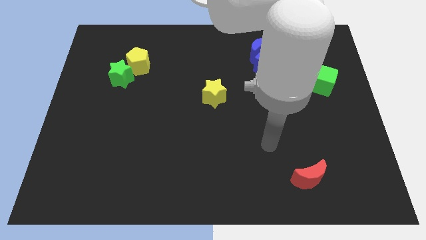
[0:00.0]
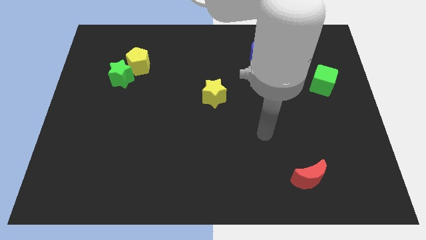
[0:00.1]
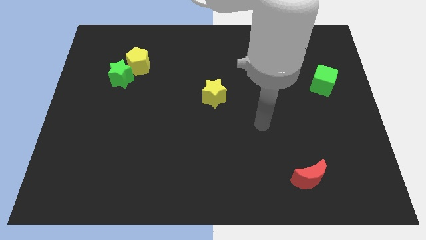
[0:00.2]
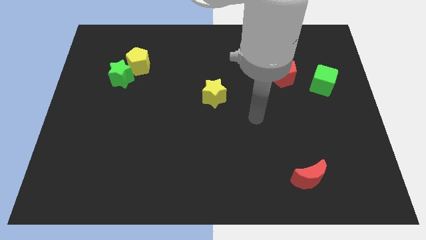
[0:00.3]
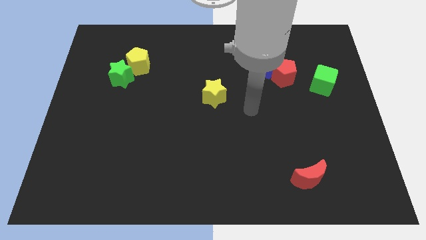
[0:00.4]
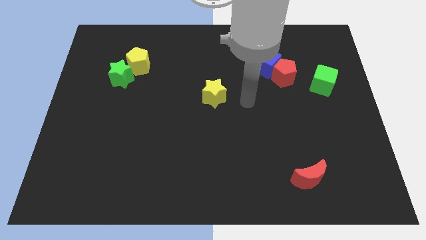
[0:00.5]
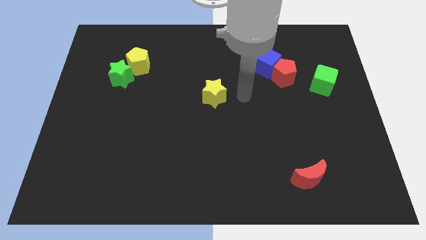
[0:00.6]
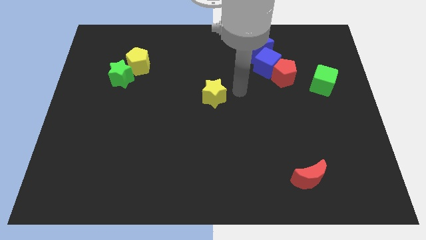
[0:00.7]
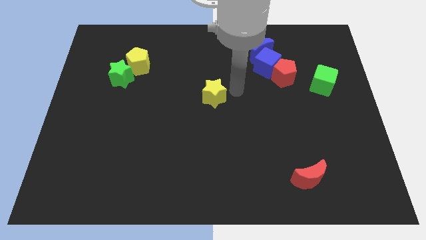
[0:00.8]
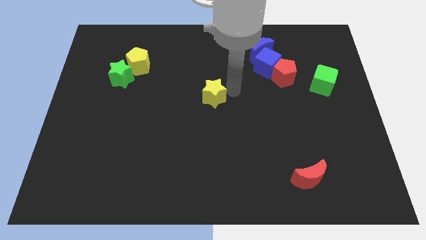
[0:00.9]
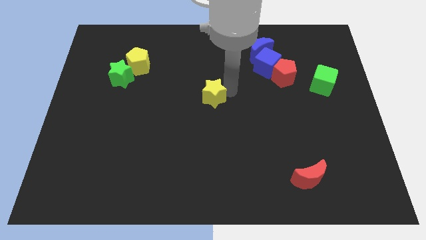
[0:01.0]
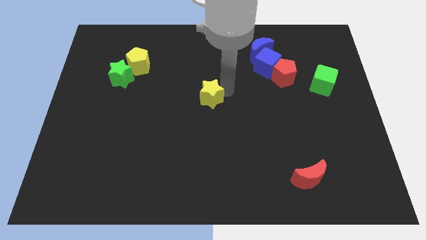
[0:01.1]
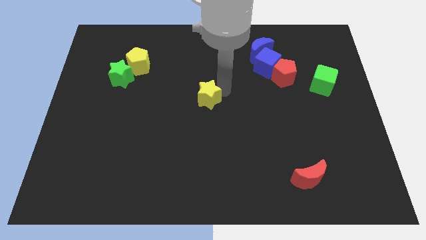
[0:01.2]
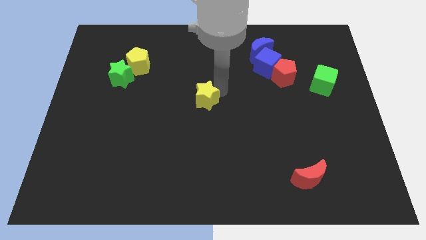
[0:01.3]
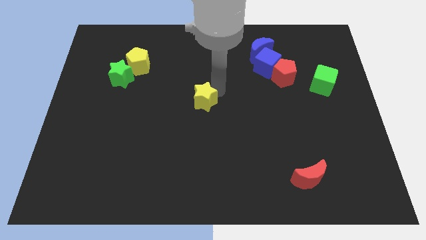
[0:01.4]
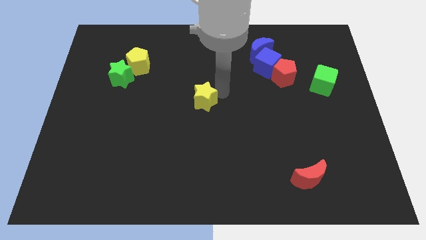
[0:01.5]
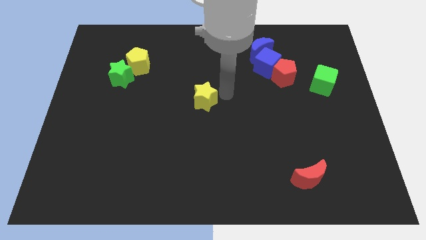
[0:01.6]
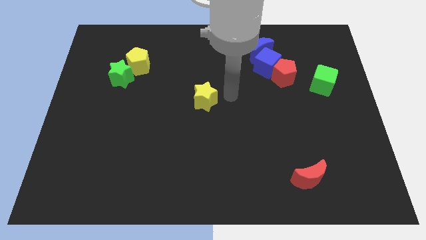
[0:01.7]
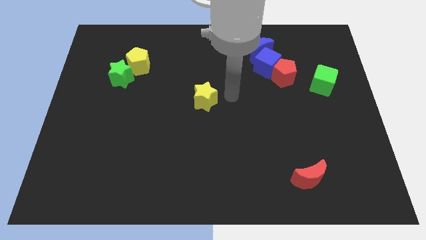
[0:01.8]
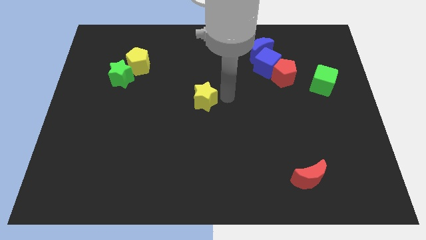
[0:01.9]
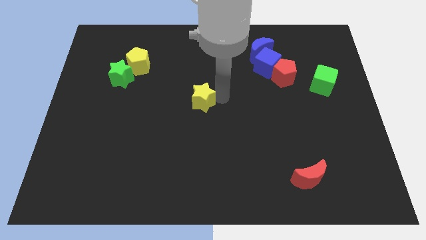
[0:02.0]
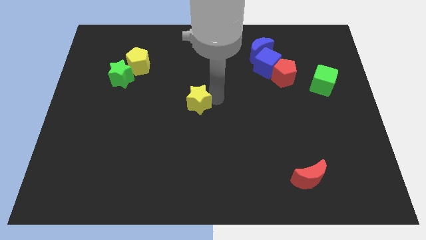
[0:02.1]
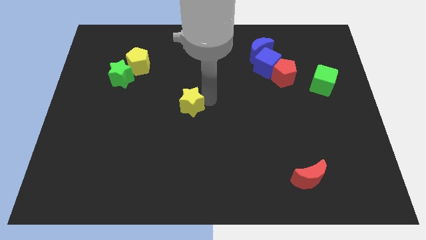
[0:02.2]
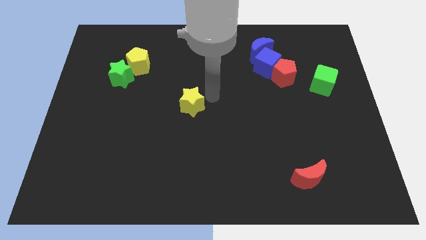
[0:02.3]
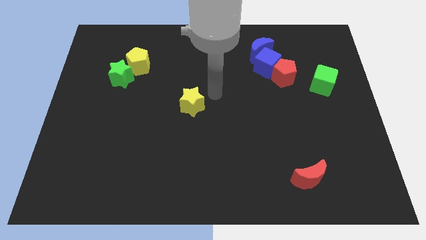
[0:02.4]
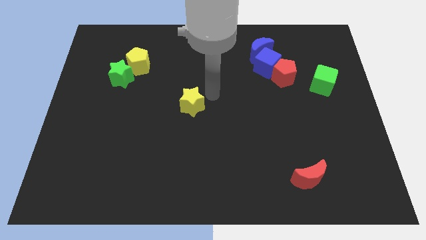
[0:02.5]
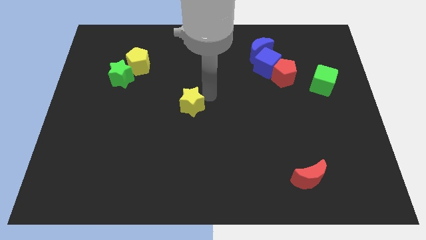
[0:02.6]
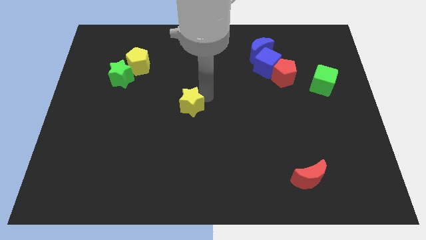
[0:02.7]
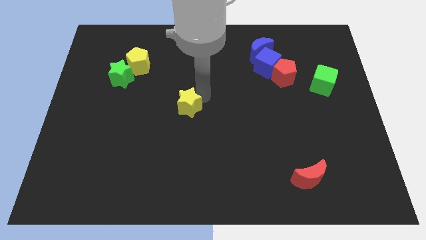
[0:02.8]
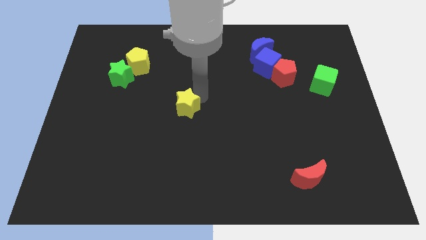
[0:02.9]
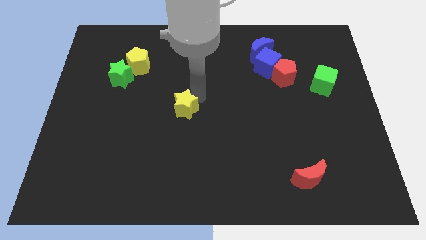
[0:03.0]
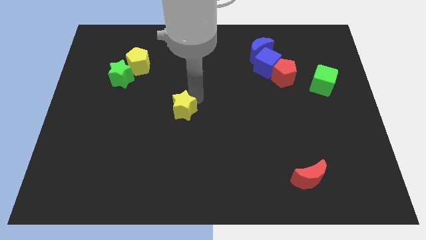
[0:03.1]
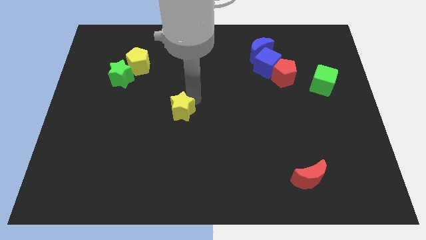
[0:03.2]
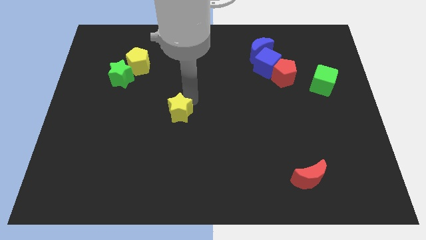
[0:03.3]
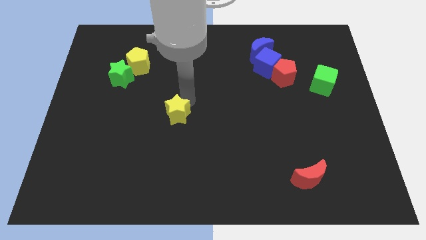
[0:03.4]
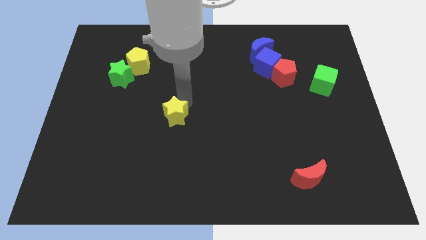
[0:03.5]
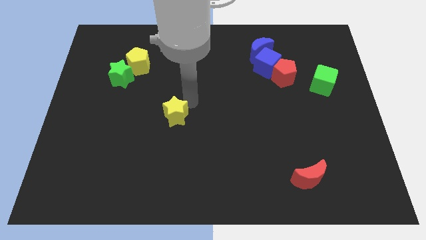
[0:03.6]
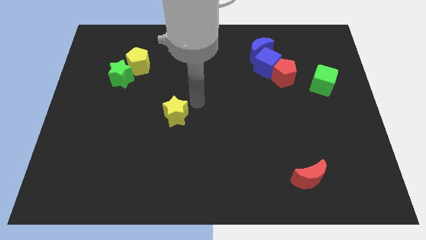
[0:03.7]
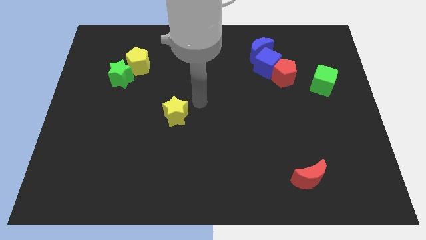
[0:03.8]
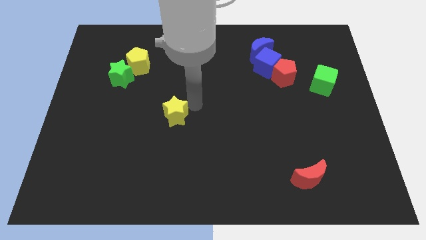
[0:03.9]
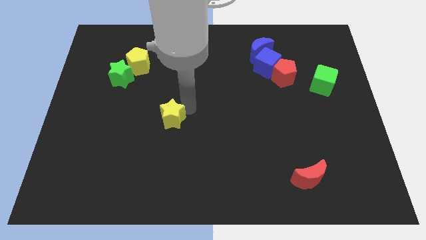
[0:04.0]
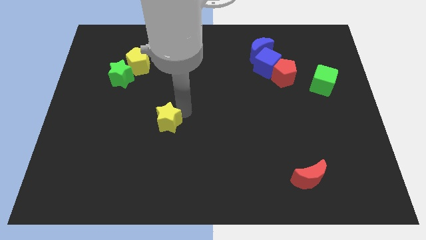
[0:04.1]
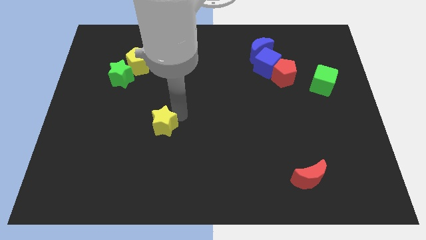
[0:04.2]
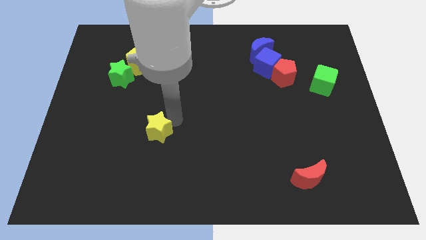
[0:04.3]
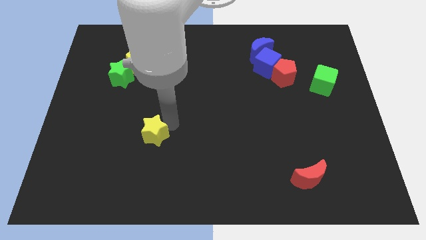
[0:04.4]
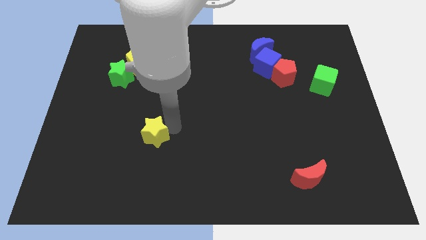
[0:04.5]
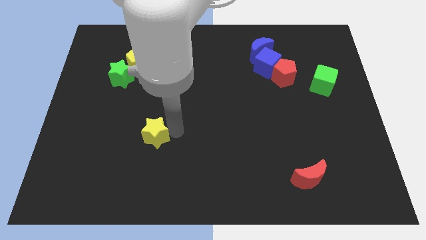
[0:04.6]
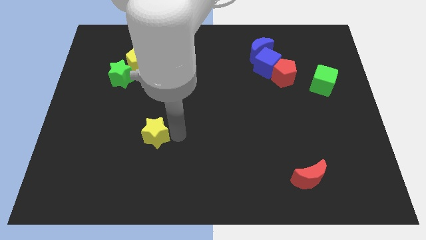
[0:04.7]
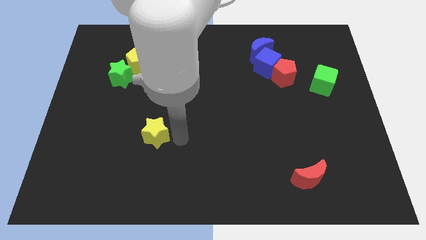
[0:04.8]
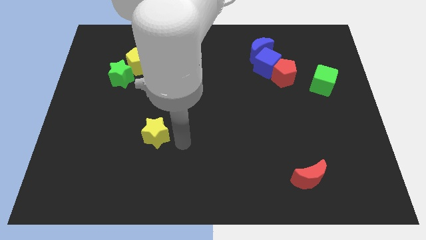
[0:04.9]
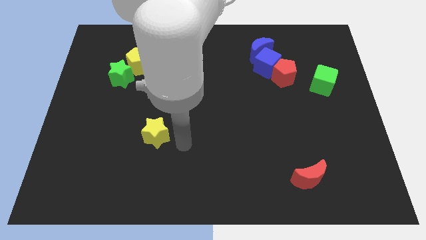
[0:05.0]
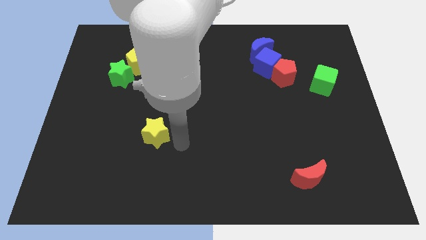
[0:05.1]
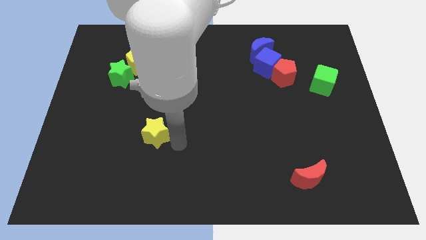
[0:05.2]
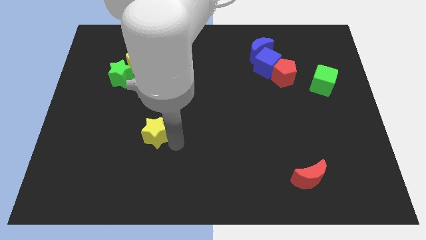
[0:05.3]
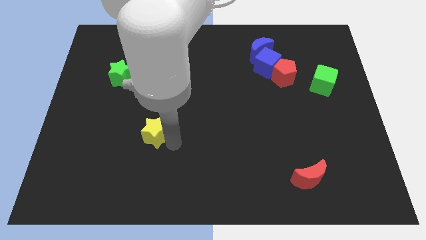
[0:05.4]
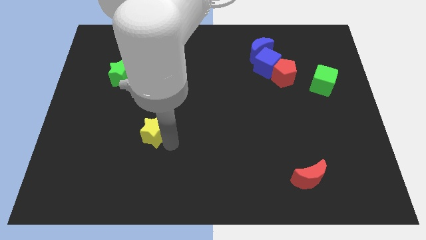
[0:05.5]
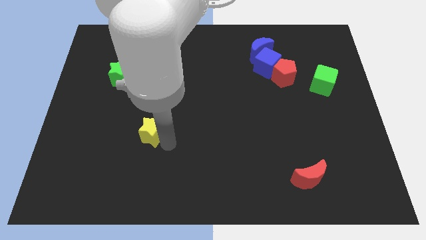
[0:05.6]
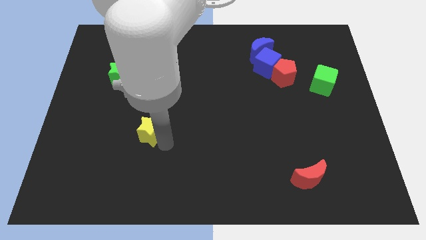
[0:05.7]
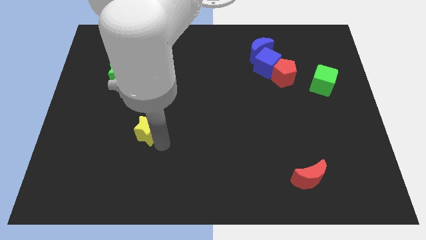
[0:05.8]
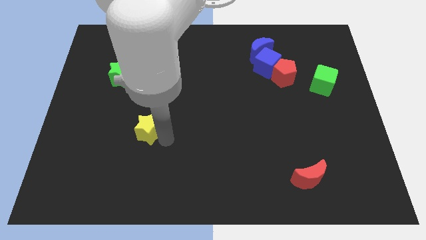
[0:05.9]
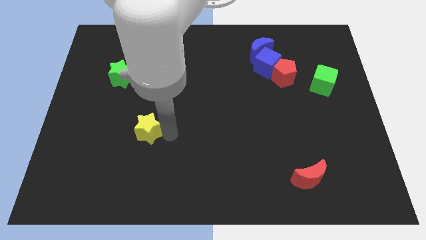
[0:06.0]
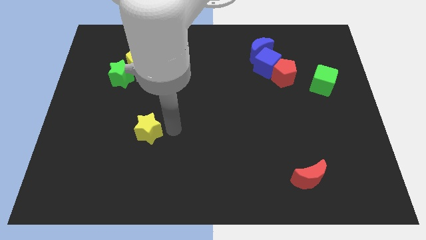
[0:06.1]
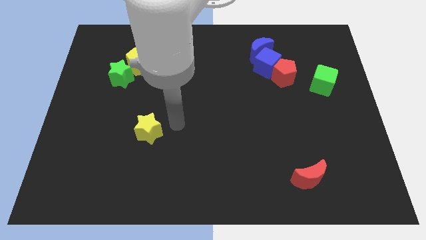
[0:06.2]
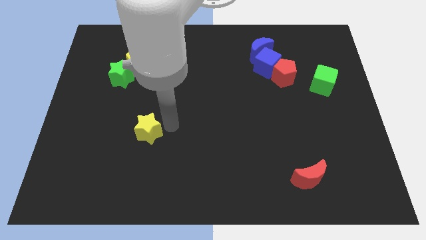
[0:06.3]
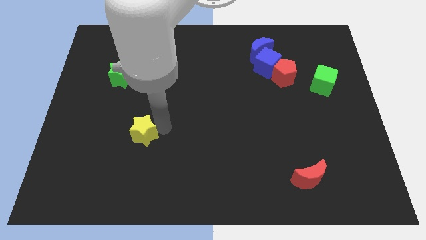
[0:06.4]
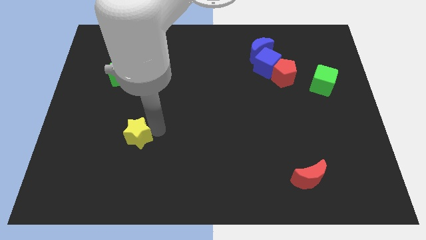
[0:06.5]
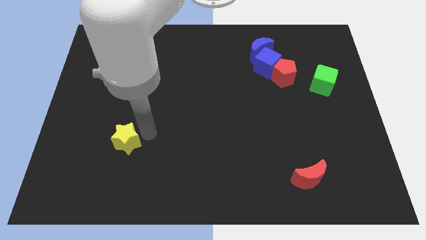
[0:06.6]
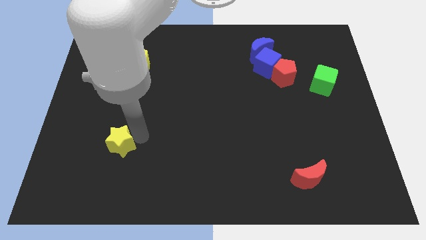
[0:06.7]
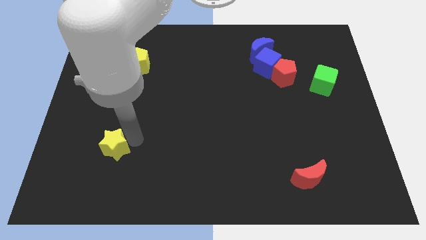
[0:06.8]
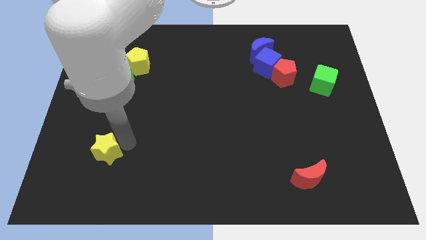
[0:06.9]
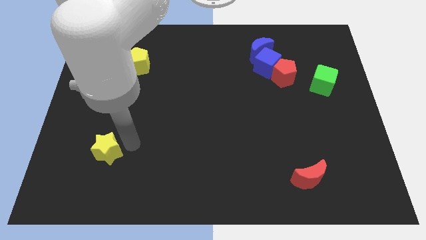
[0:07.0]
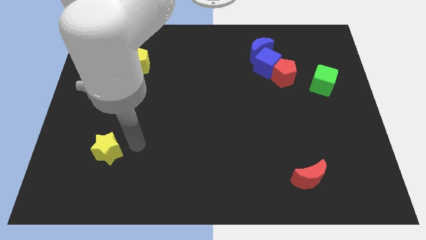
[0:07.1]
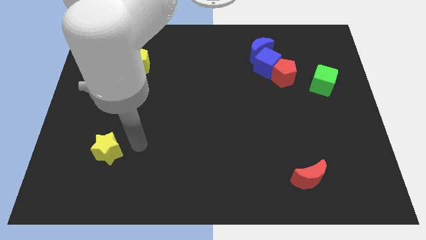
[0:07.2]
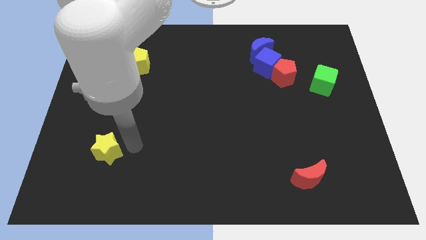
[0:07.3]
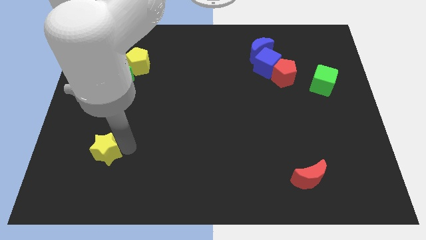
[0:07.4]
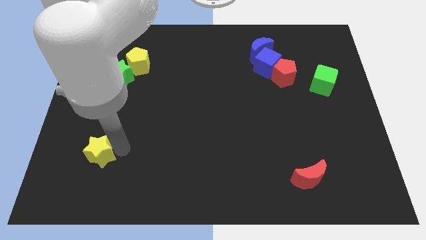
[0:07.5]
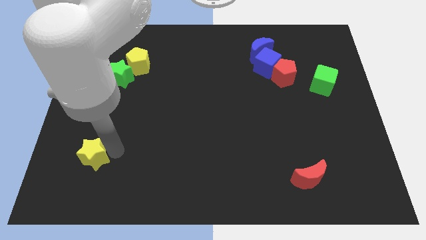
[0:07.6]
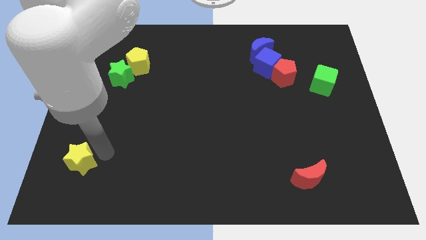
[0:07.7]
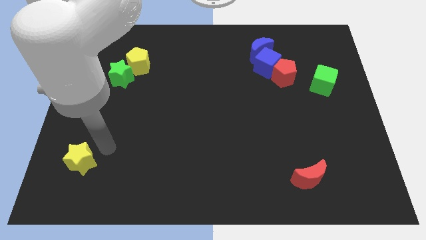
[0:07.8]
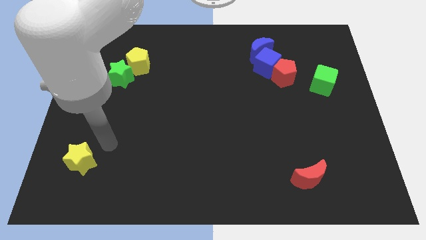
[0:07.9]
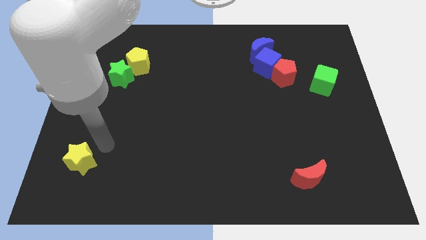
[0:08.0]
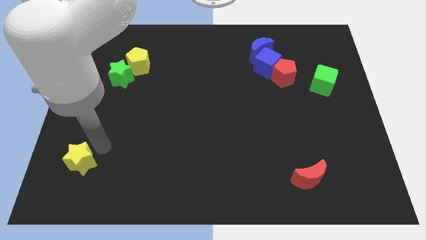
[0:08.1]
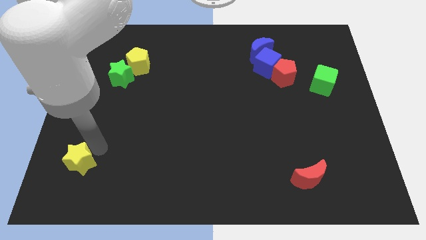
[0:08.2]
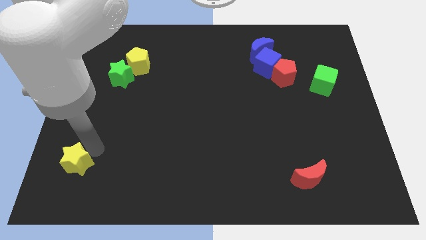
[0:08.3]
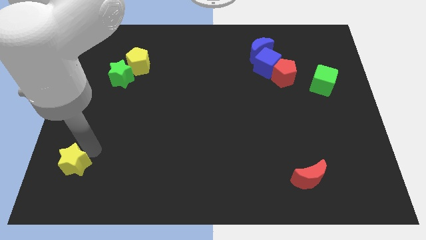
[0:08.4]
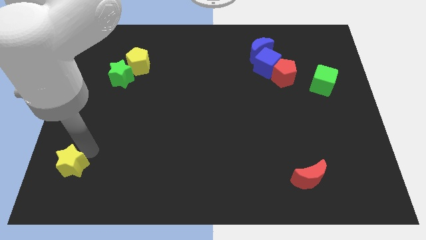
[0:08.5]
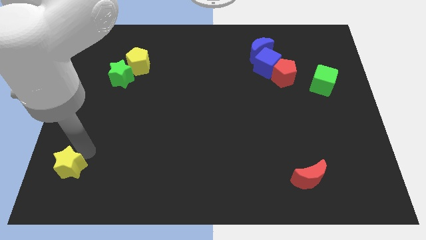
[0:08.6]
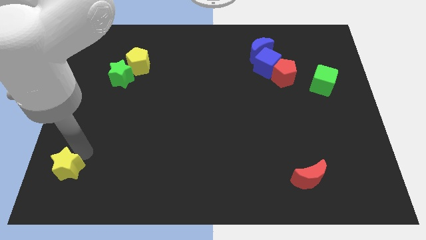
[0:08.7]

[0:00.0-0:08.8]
move the yellow star to the bottom left corner
